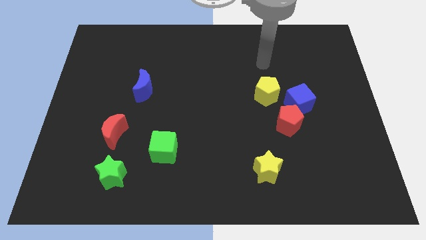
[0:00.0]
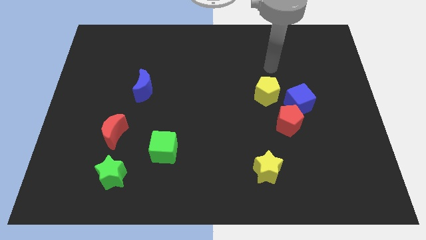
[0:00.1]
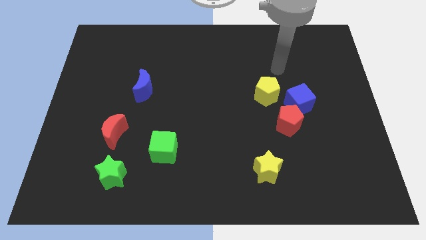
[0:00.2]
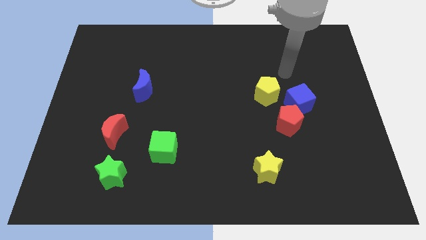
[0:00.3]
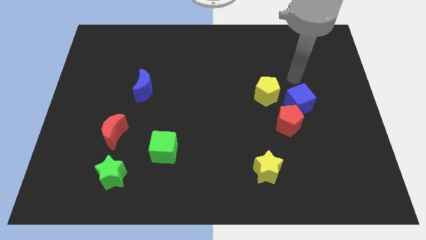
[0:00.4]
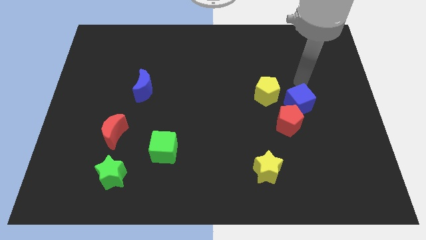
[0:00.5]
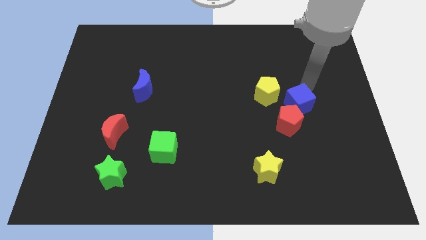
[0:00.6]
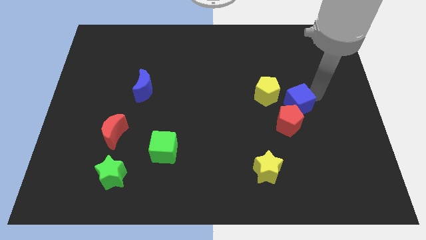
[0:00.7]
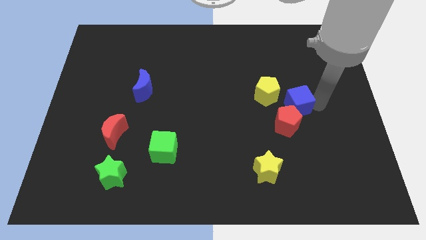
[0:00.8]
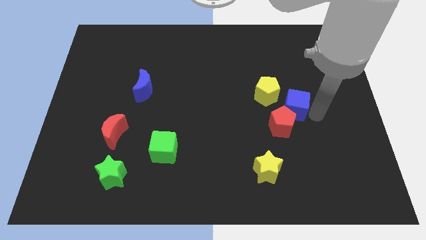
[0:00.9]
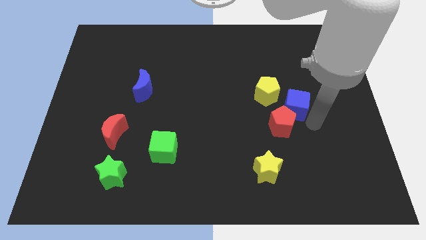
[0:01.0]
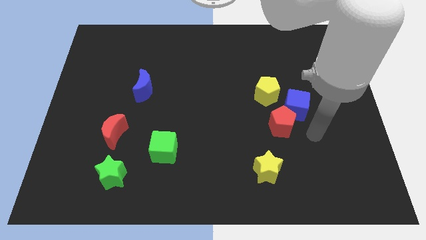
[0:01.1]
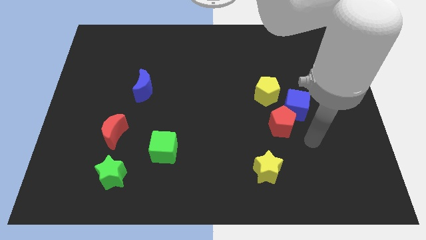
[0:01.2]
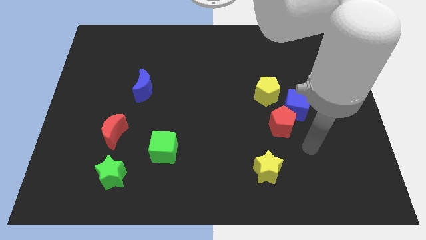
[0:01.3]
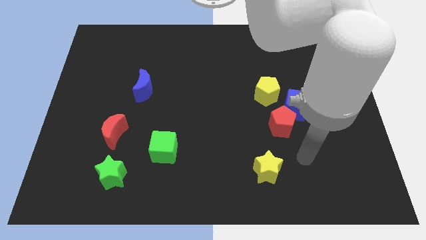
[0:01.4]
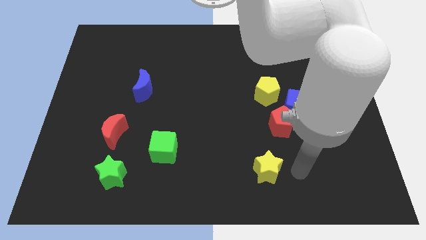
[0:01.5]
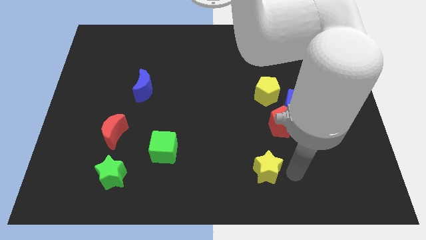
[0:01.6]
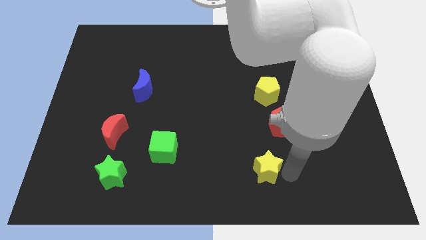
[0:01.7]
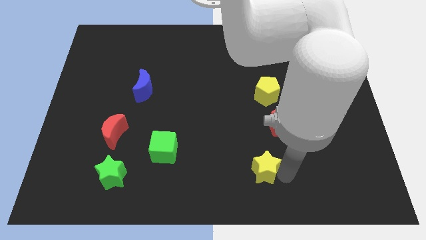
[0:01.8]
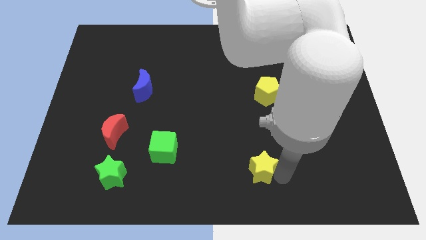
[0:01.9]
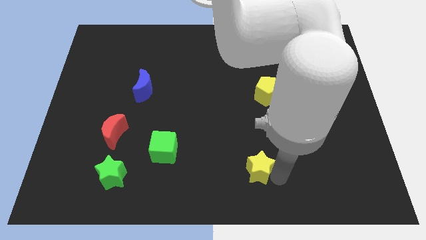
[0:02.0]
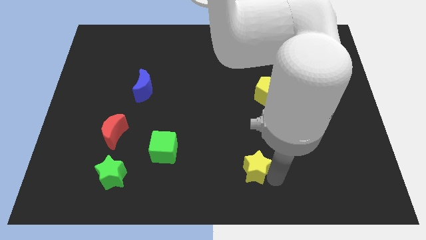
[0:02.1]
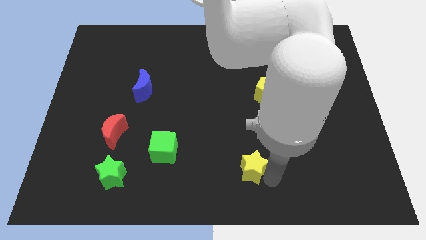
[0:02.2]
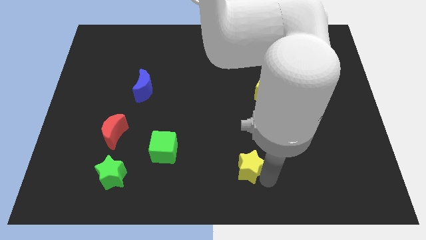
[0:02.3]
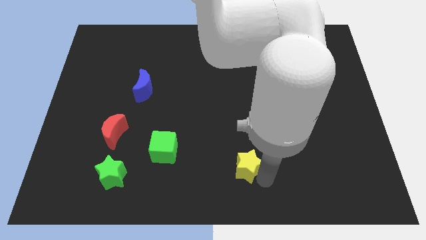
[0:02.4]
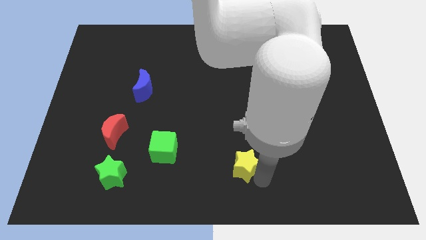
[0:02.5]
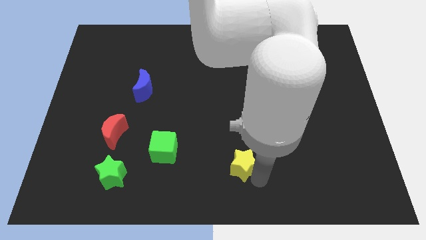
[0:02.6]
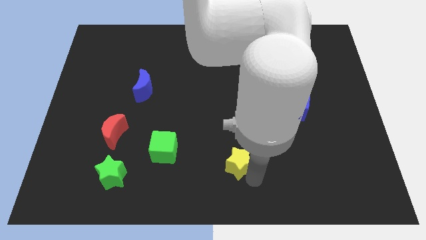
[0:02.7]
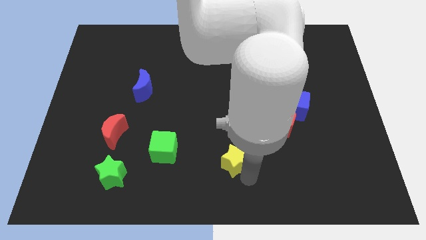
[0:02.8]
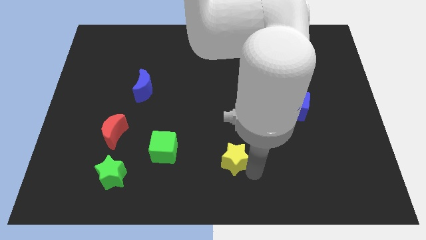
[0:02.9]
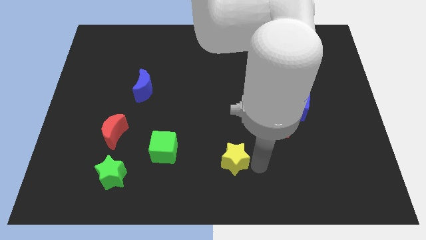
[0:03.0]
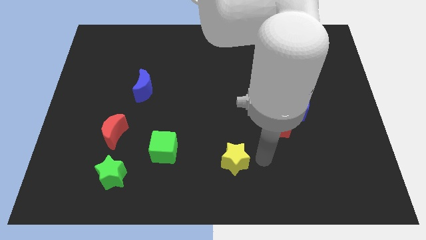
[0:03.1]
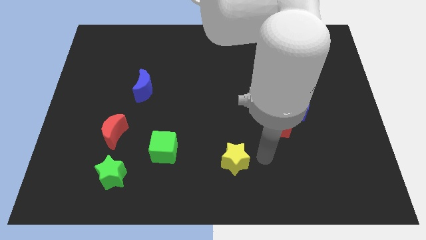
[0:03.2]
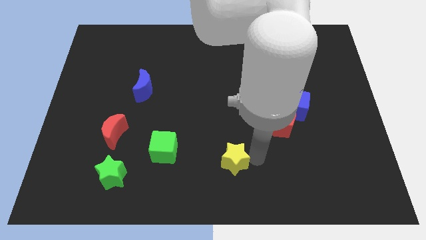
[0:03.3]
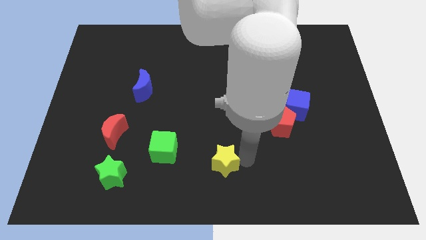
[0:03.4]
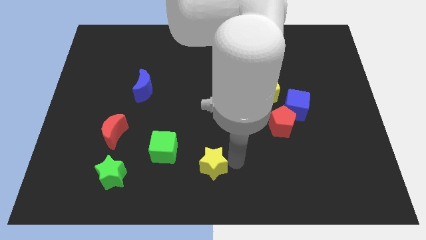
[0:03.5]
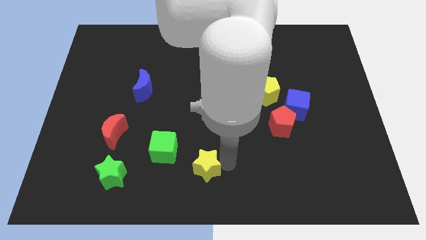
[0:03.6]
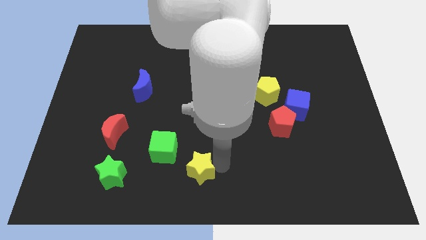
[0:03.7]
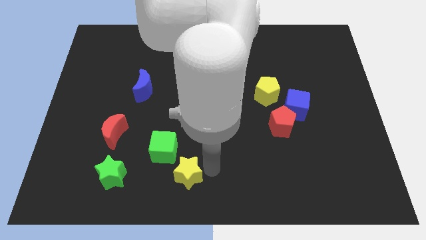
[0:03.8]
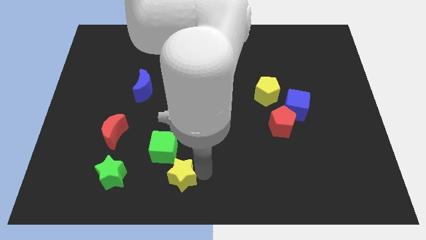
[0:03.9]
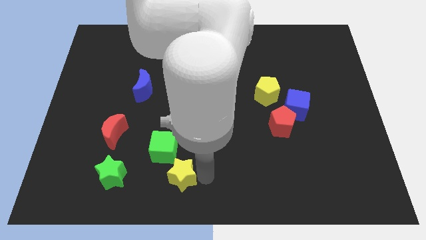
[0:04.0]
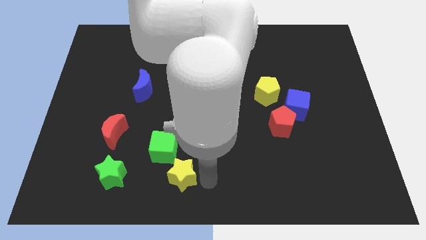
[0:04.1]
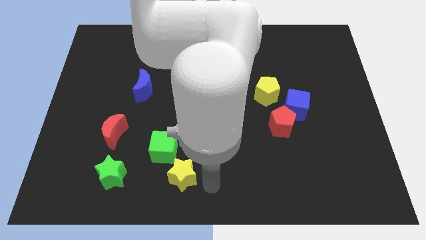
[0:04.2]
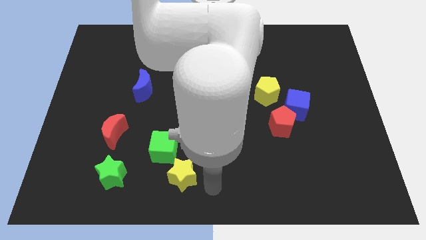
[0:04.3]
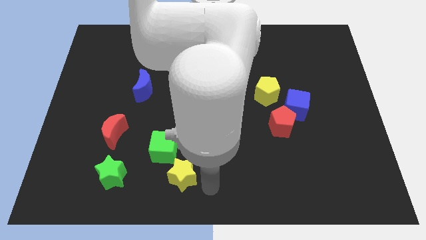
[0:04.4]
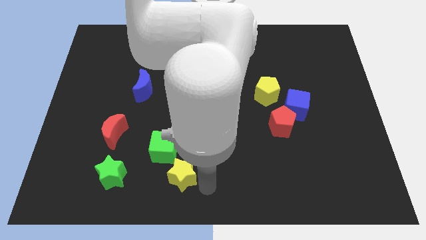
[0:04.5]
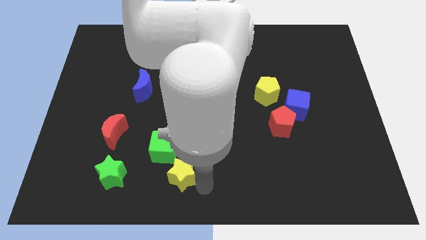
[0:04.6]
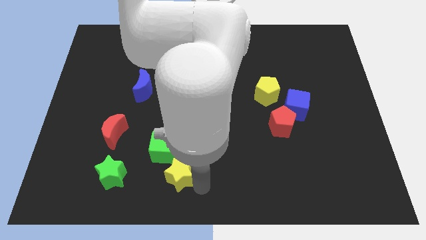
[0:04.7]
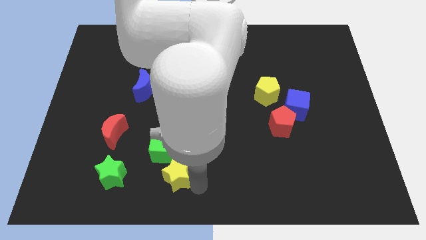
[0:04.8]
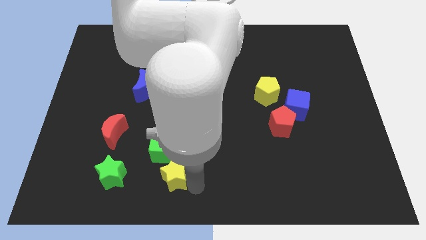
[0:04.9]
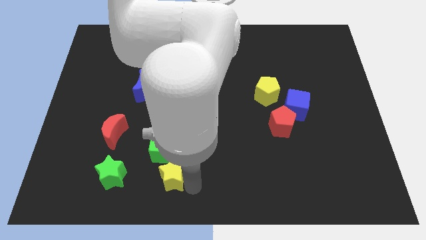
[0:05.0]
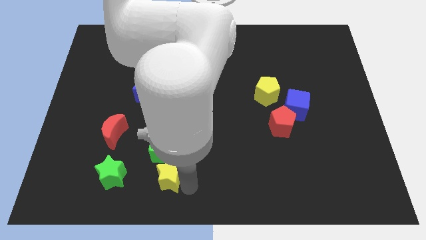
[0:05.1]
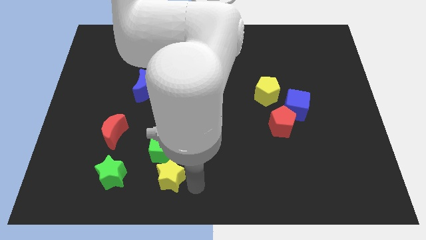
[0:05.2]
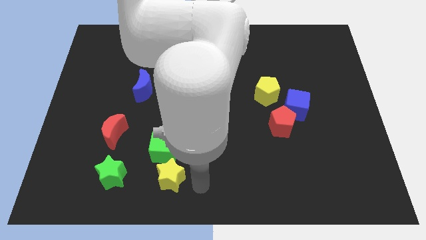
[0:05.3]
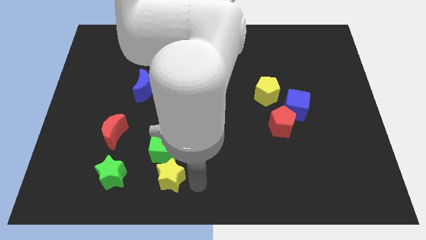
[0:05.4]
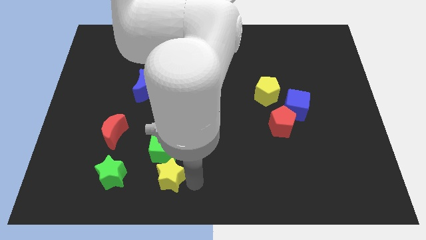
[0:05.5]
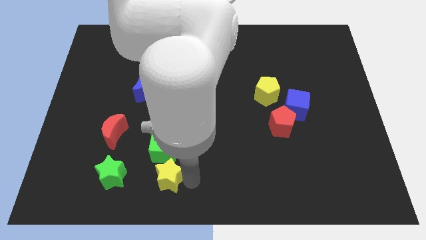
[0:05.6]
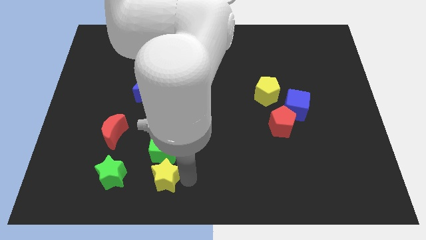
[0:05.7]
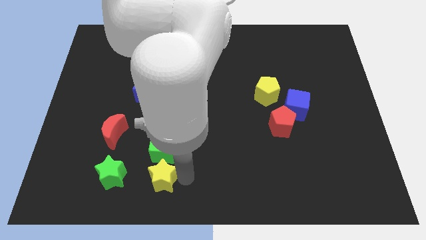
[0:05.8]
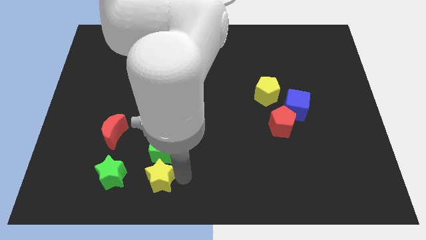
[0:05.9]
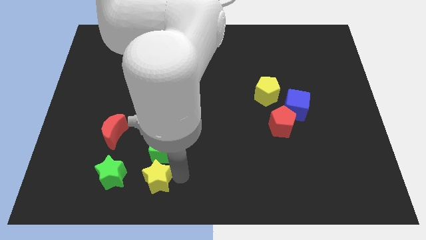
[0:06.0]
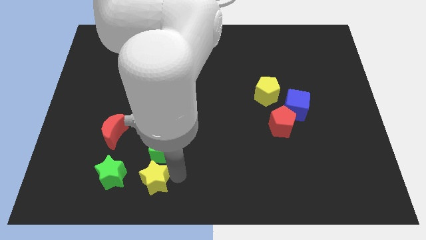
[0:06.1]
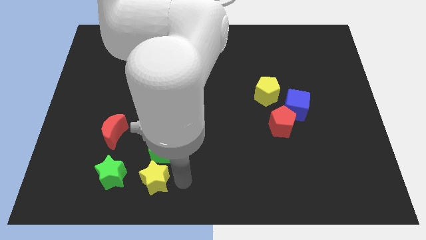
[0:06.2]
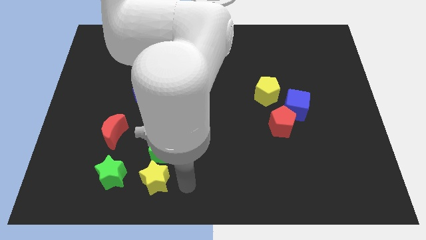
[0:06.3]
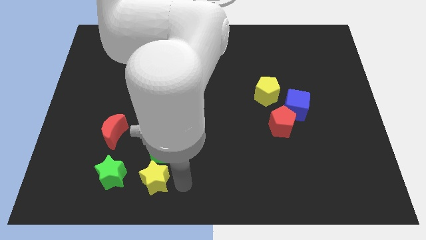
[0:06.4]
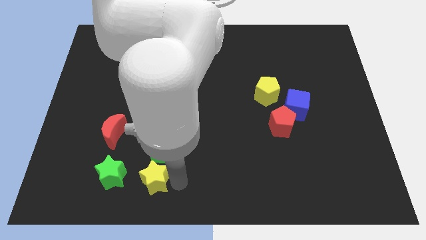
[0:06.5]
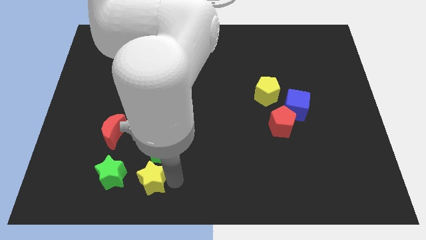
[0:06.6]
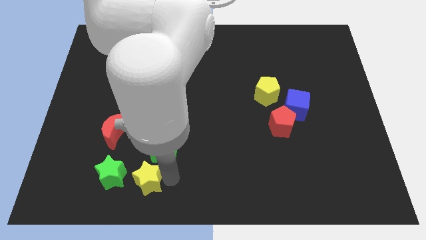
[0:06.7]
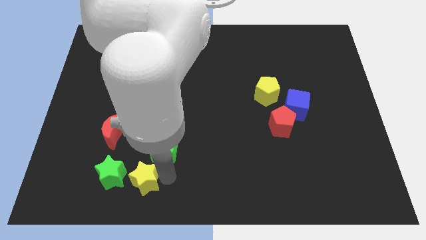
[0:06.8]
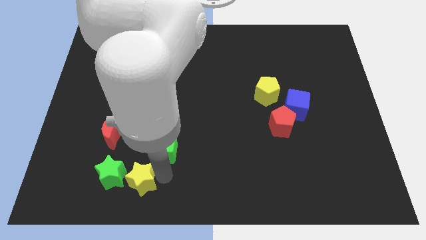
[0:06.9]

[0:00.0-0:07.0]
slide the yellow star to the green star

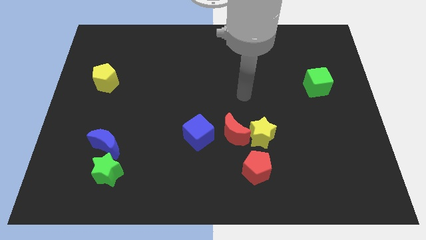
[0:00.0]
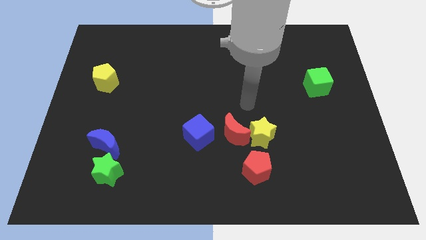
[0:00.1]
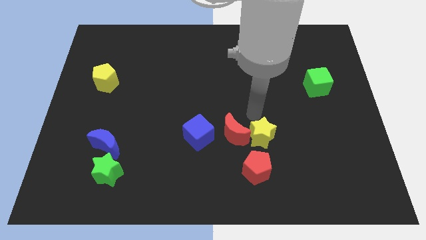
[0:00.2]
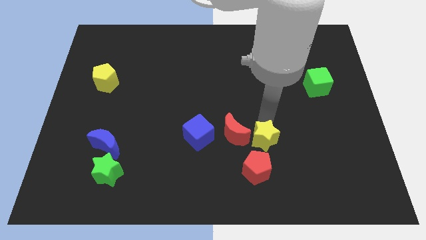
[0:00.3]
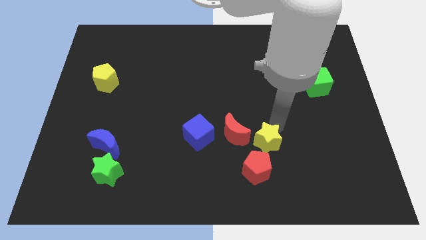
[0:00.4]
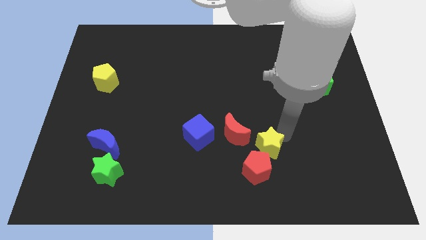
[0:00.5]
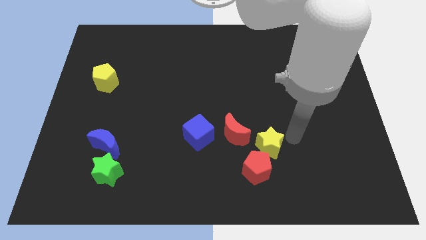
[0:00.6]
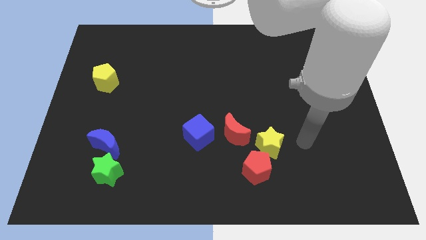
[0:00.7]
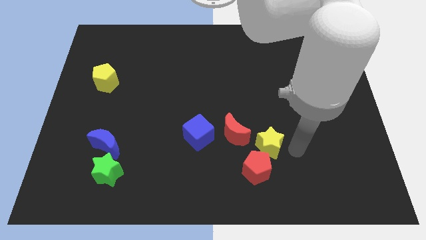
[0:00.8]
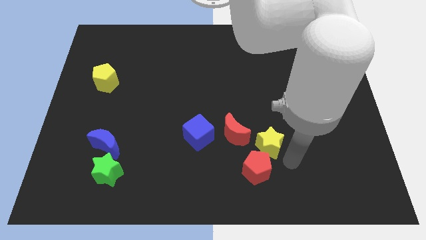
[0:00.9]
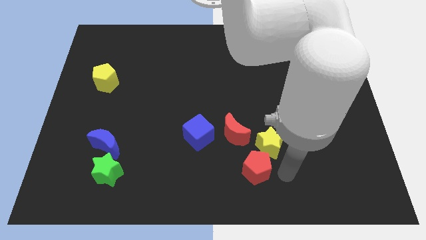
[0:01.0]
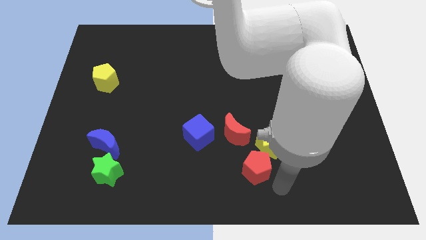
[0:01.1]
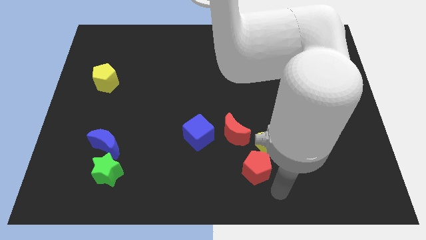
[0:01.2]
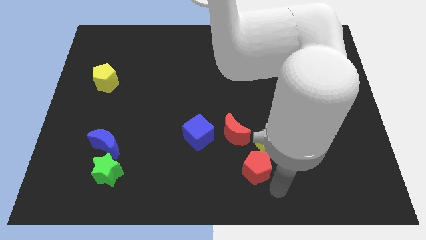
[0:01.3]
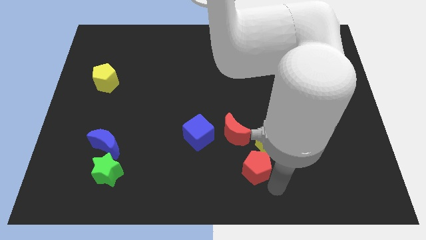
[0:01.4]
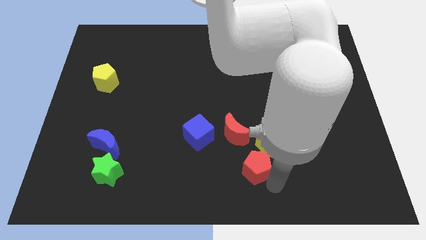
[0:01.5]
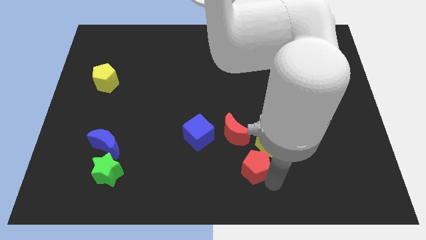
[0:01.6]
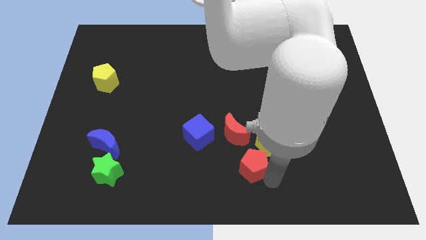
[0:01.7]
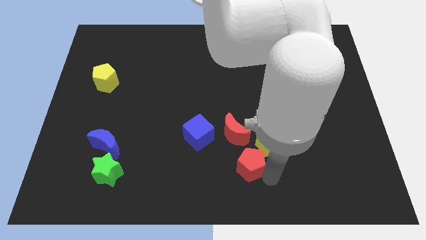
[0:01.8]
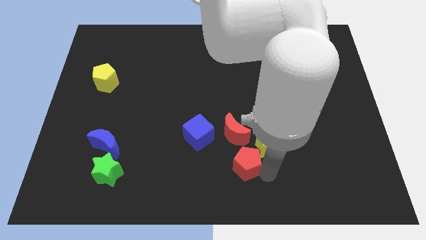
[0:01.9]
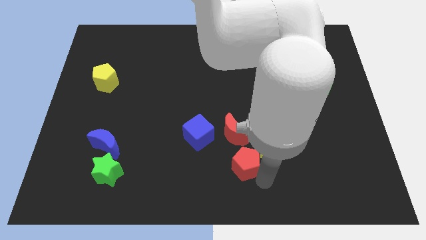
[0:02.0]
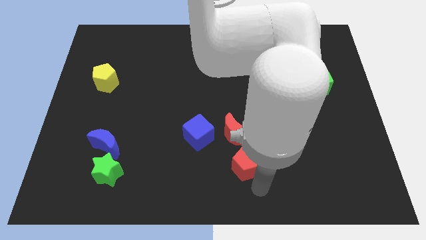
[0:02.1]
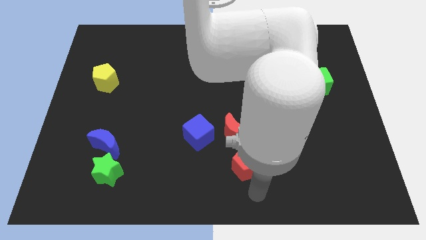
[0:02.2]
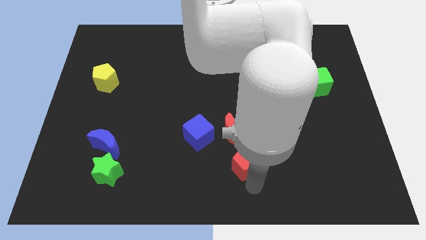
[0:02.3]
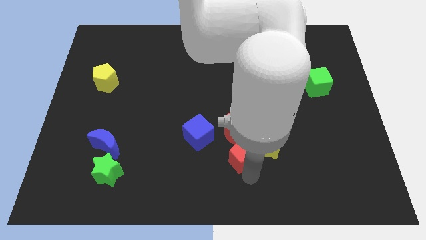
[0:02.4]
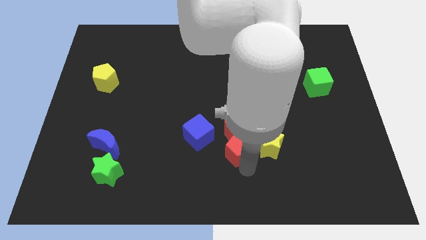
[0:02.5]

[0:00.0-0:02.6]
put the red pentagon towards the red moon
